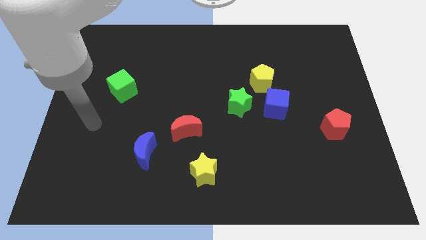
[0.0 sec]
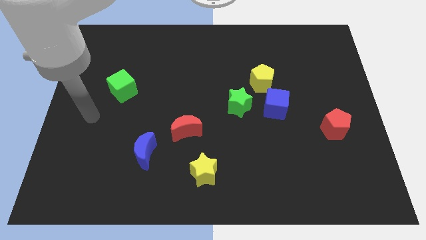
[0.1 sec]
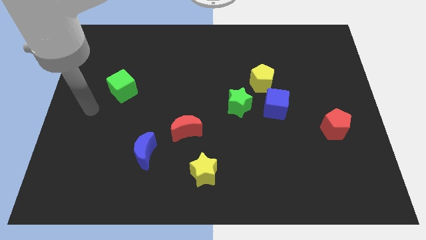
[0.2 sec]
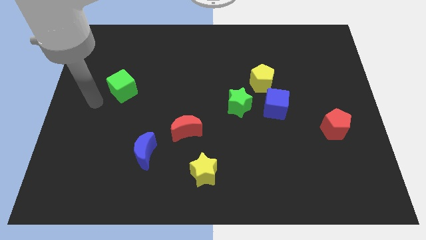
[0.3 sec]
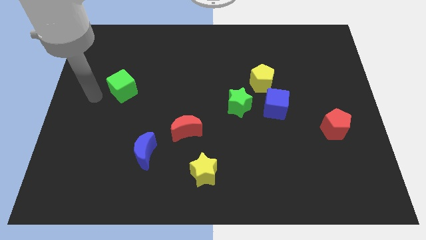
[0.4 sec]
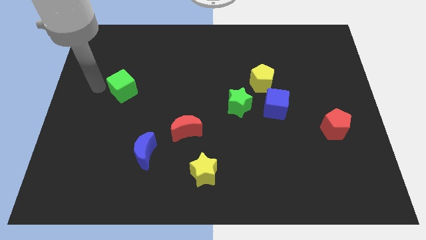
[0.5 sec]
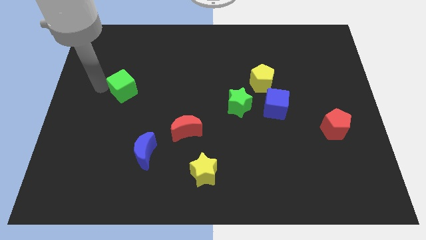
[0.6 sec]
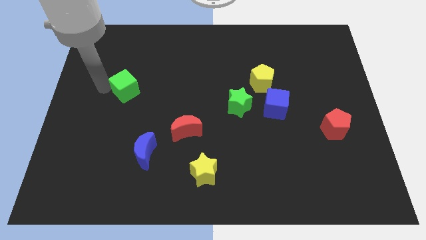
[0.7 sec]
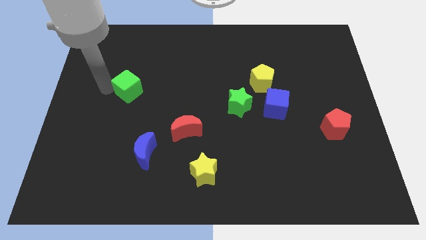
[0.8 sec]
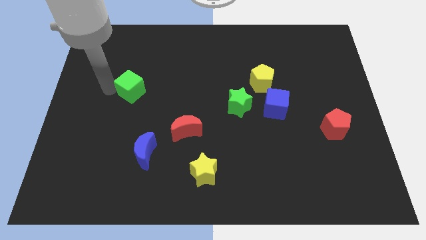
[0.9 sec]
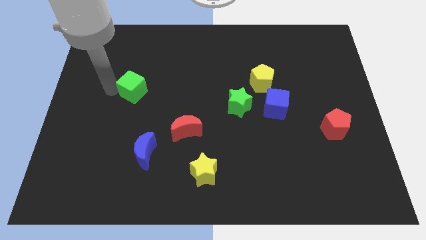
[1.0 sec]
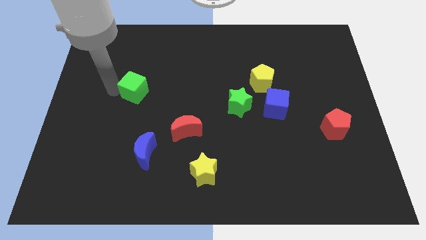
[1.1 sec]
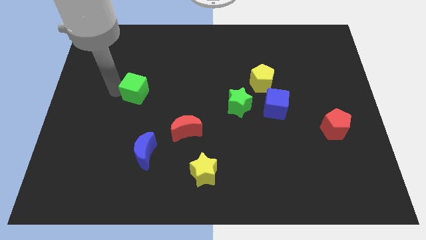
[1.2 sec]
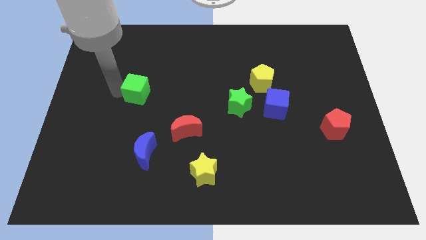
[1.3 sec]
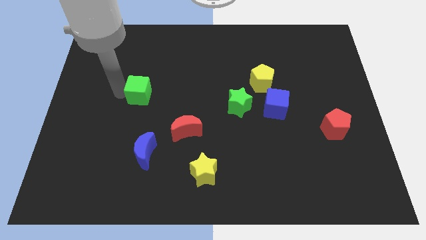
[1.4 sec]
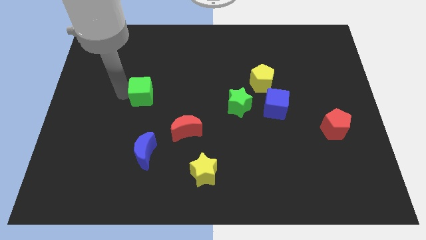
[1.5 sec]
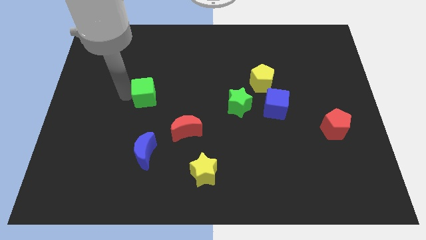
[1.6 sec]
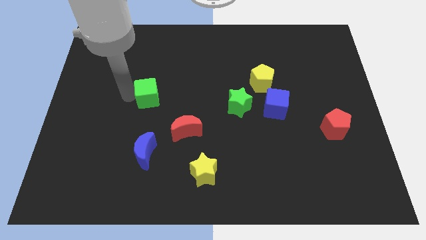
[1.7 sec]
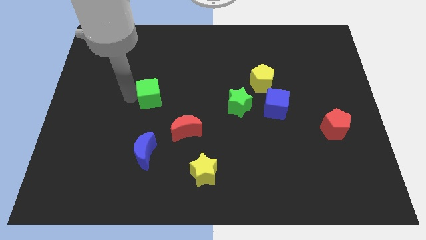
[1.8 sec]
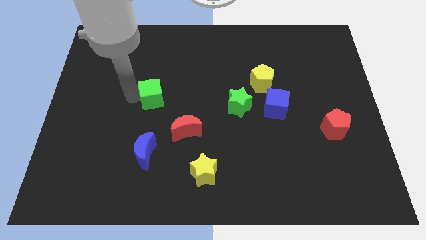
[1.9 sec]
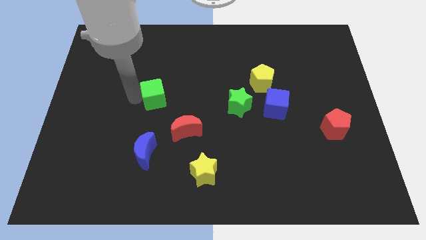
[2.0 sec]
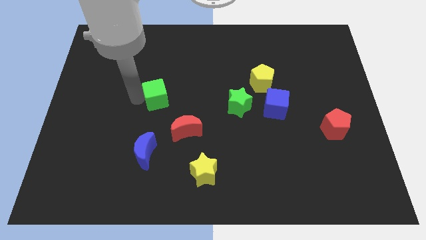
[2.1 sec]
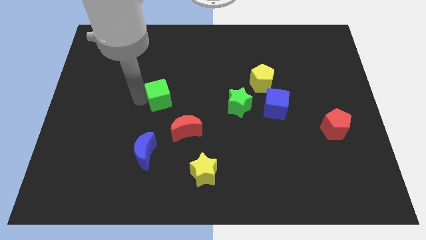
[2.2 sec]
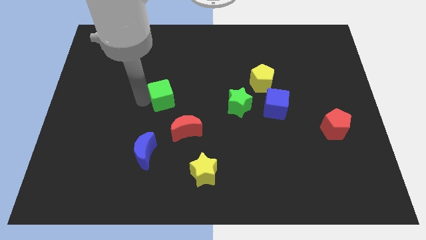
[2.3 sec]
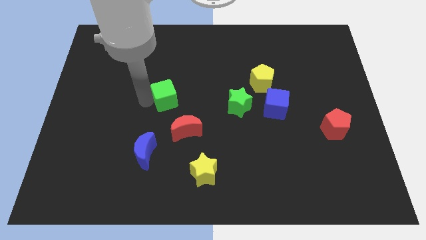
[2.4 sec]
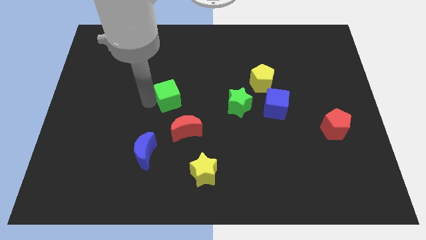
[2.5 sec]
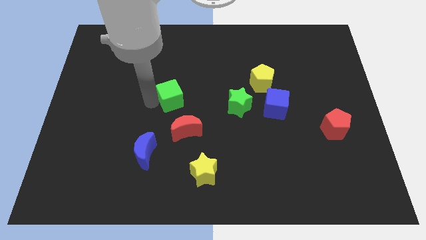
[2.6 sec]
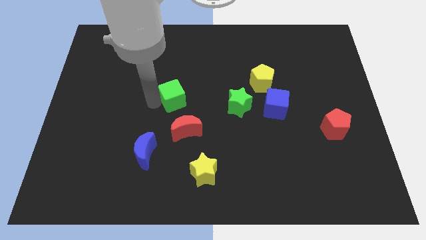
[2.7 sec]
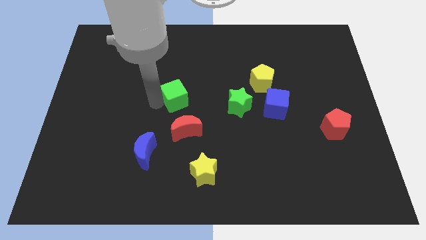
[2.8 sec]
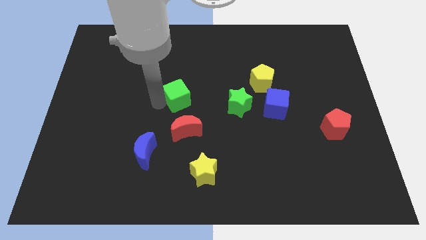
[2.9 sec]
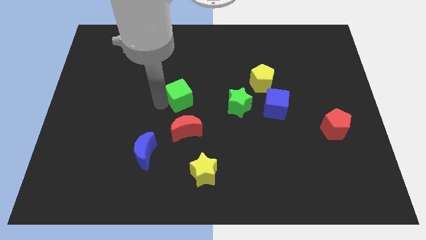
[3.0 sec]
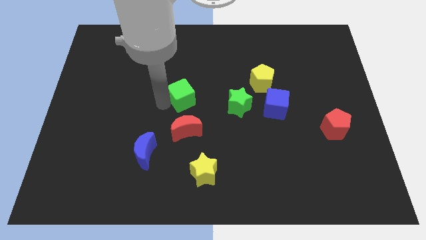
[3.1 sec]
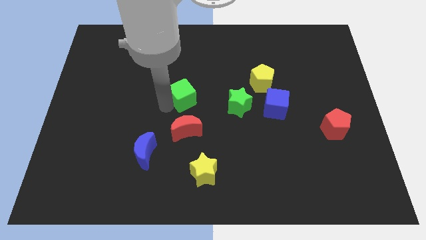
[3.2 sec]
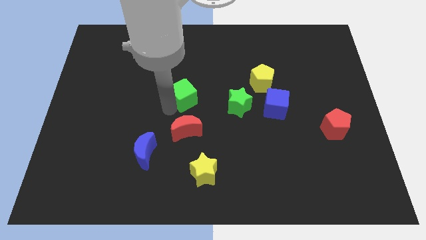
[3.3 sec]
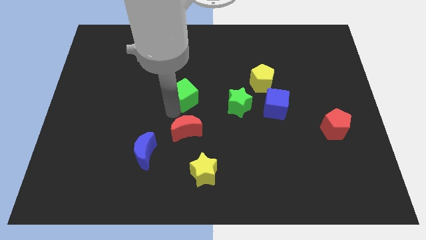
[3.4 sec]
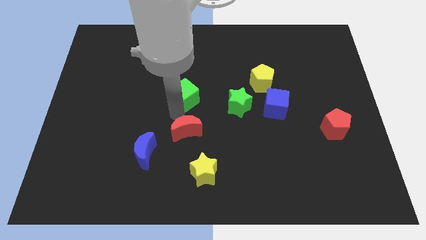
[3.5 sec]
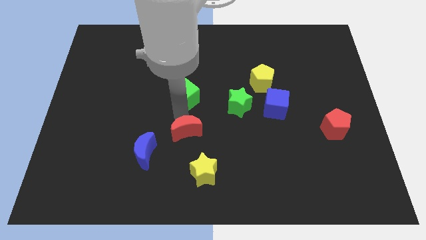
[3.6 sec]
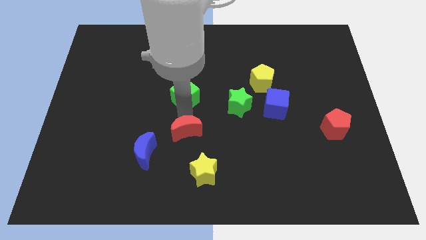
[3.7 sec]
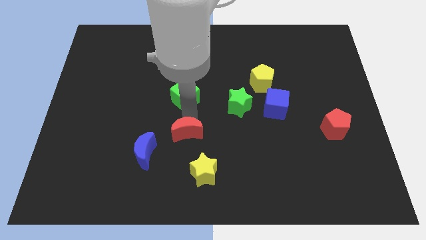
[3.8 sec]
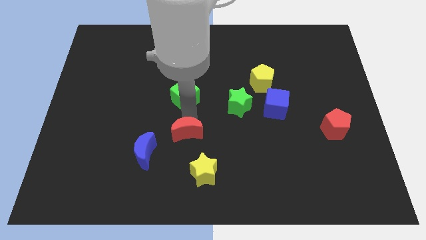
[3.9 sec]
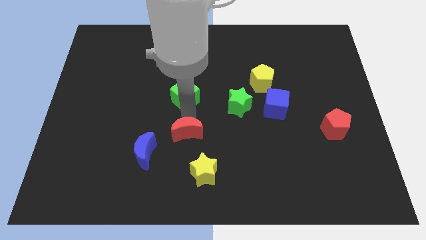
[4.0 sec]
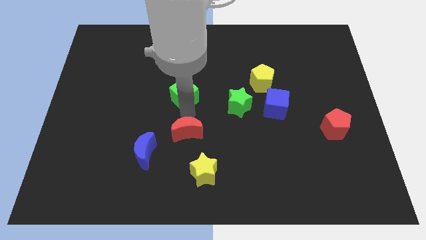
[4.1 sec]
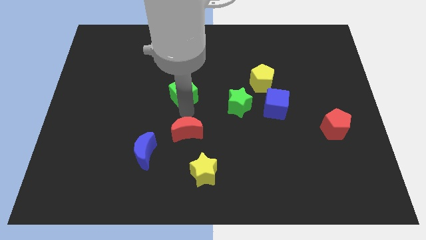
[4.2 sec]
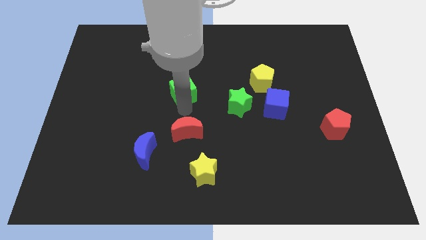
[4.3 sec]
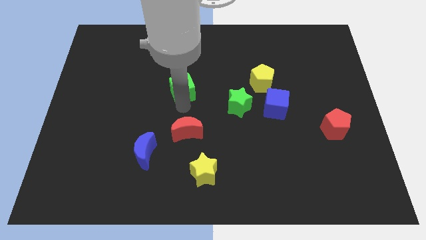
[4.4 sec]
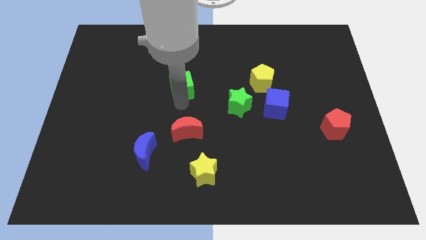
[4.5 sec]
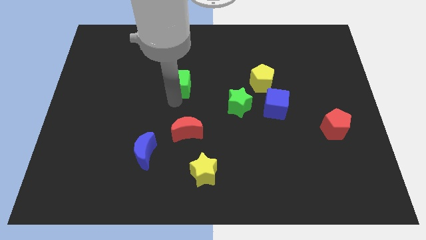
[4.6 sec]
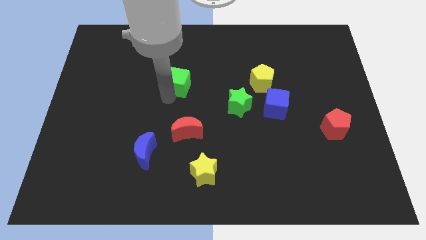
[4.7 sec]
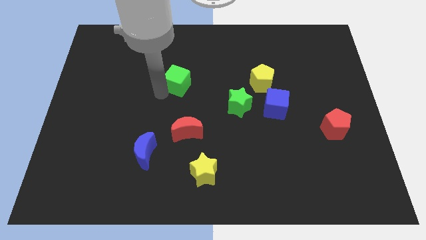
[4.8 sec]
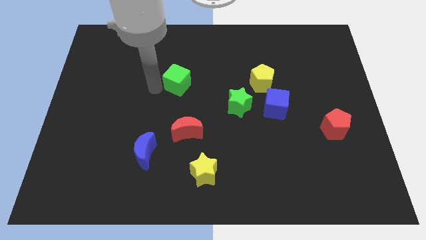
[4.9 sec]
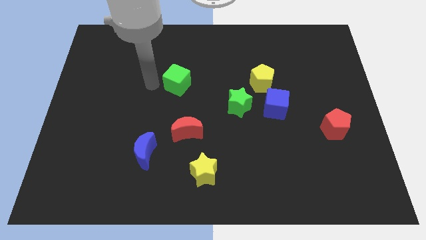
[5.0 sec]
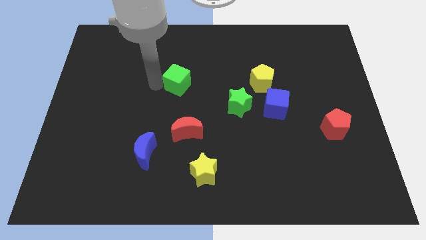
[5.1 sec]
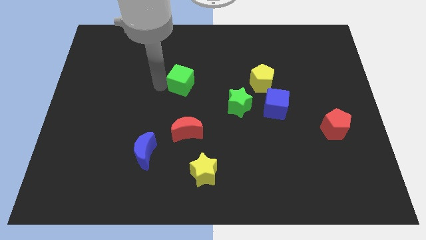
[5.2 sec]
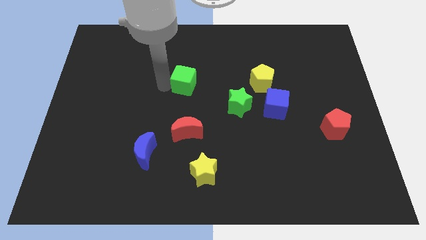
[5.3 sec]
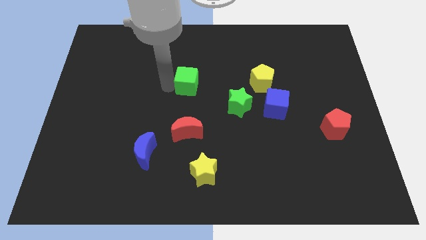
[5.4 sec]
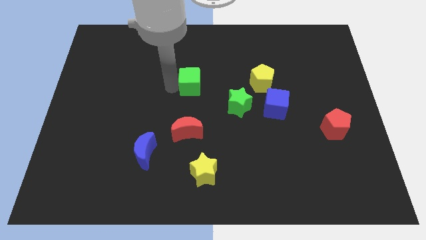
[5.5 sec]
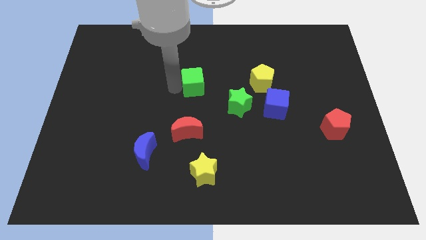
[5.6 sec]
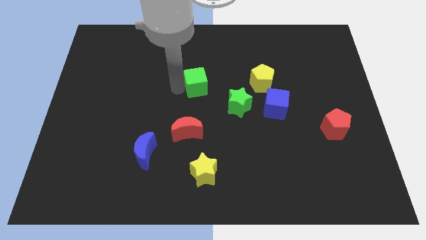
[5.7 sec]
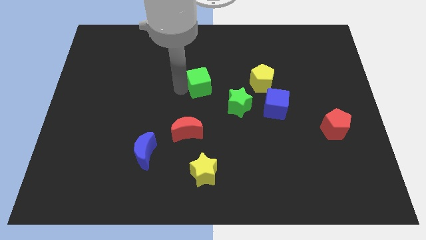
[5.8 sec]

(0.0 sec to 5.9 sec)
move the green cube just left of the yellow pentagon

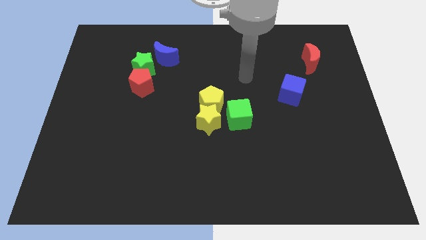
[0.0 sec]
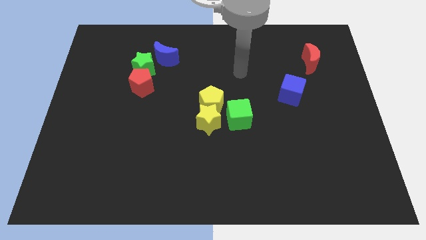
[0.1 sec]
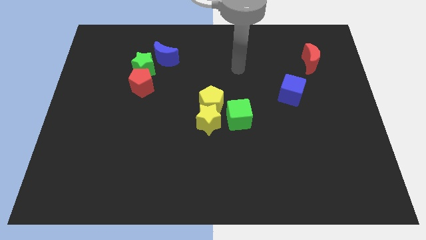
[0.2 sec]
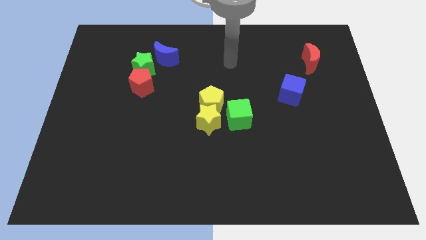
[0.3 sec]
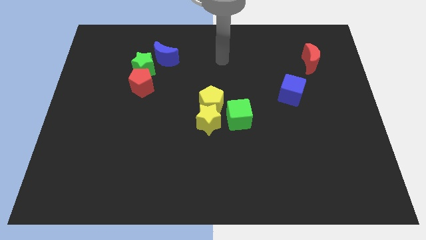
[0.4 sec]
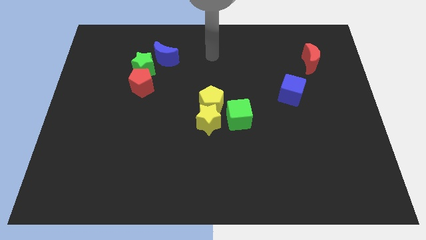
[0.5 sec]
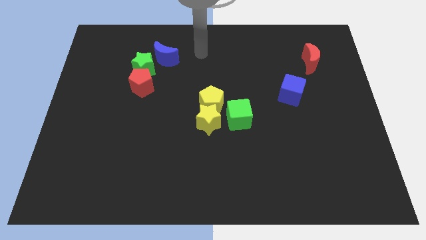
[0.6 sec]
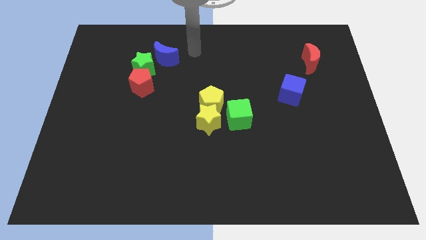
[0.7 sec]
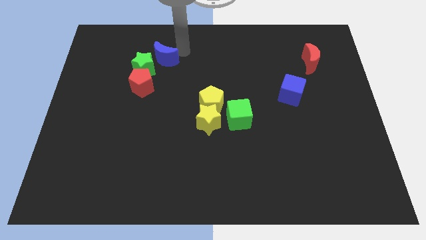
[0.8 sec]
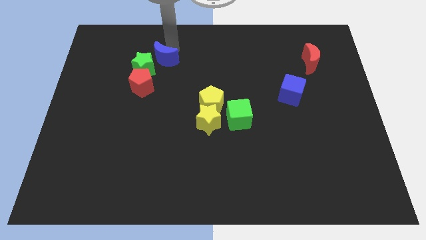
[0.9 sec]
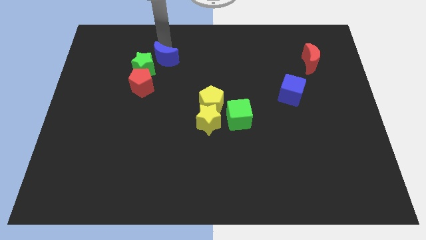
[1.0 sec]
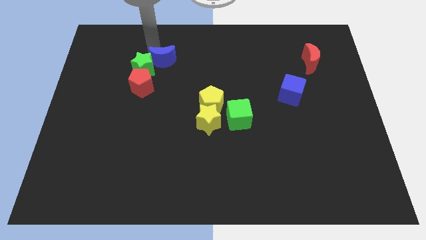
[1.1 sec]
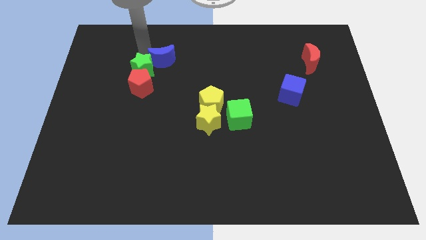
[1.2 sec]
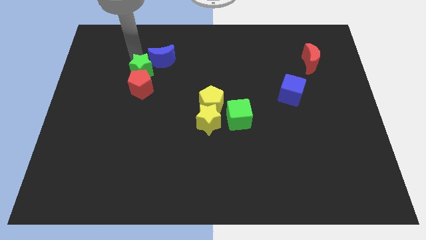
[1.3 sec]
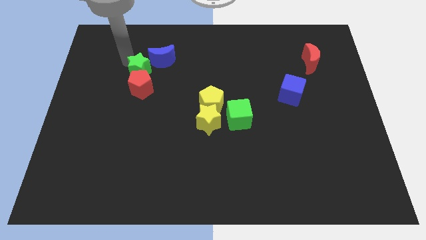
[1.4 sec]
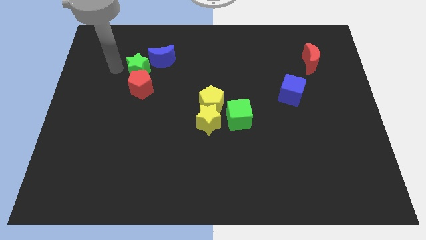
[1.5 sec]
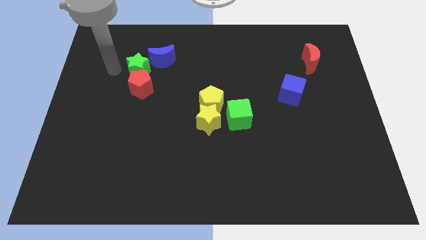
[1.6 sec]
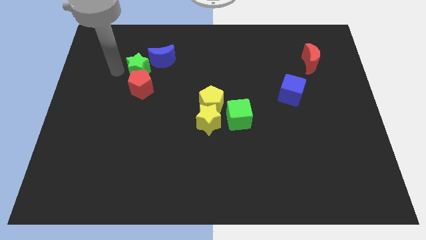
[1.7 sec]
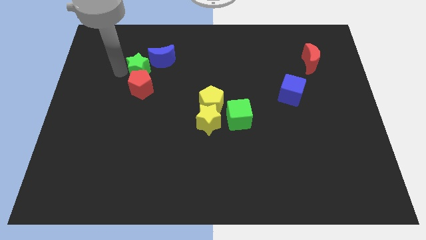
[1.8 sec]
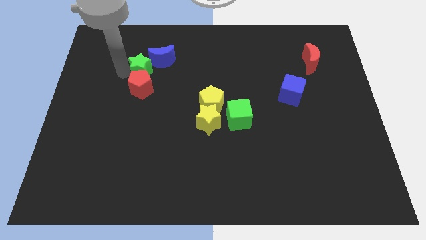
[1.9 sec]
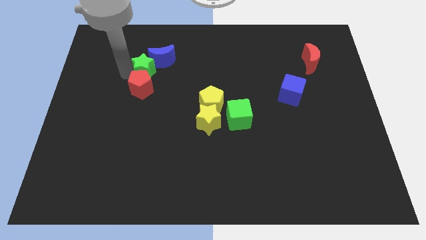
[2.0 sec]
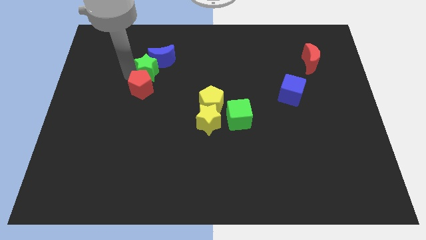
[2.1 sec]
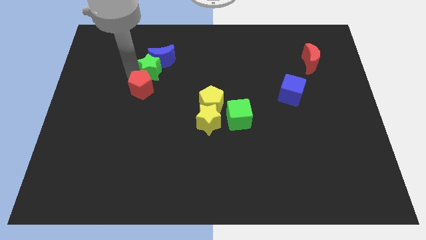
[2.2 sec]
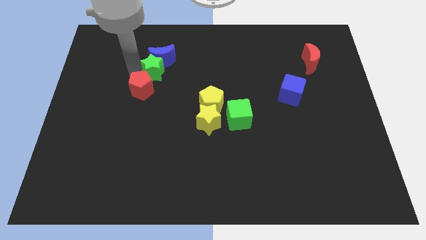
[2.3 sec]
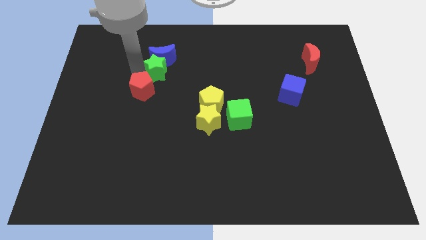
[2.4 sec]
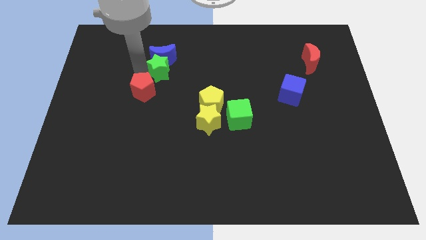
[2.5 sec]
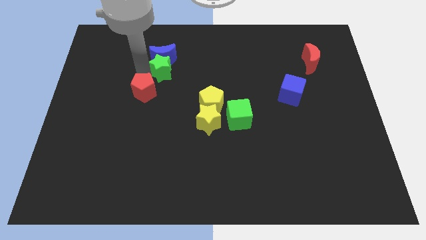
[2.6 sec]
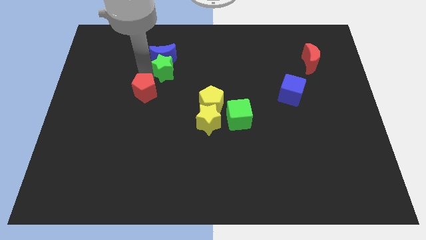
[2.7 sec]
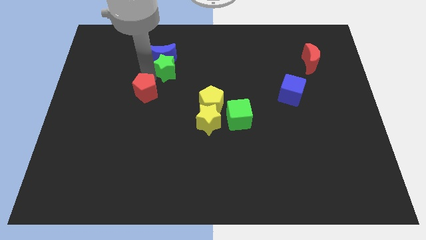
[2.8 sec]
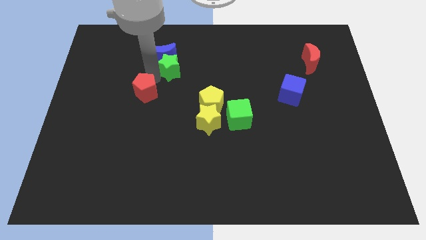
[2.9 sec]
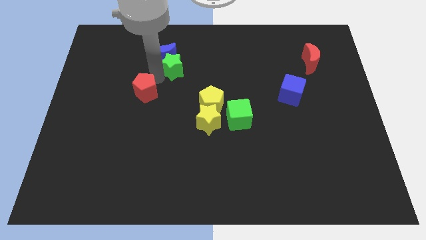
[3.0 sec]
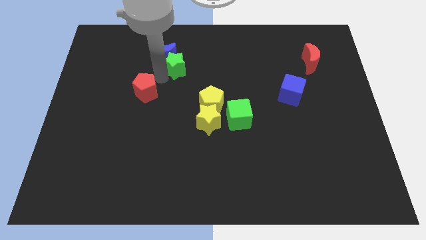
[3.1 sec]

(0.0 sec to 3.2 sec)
put the green star right of the blue moon
